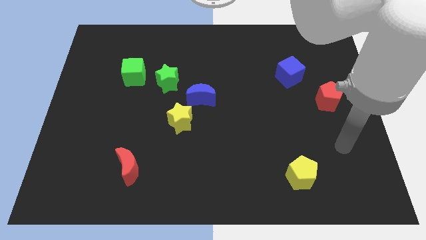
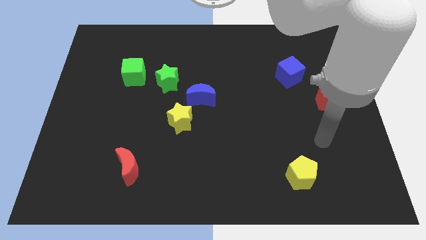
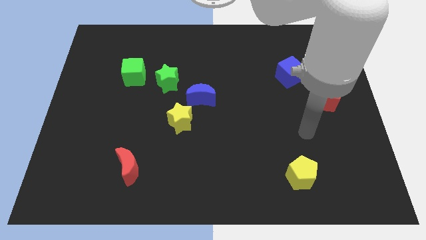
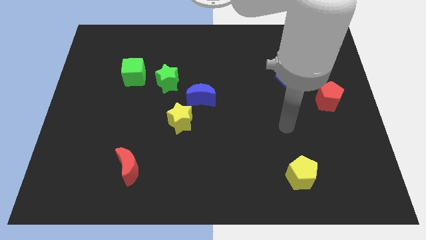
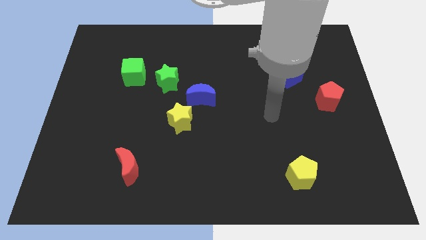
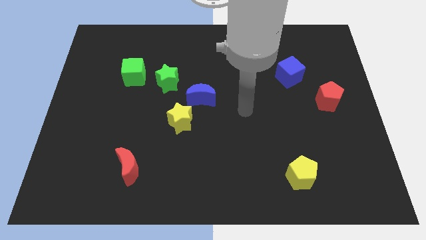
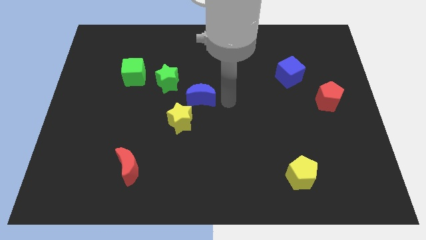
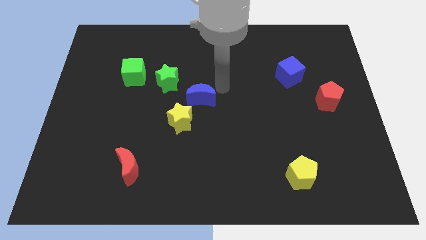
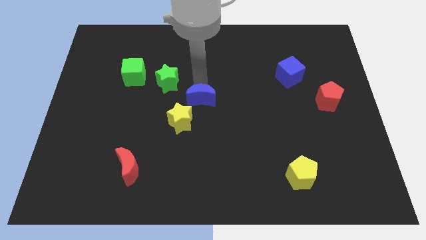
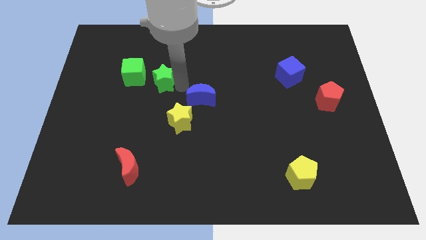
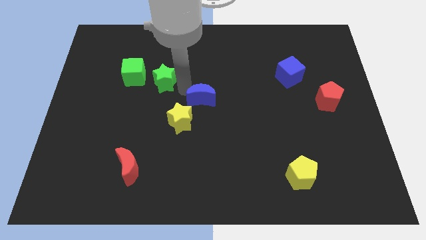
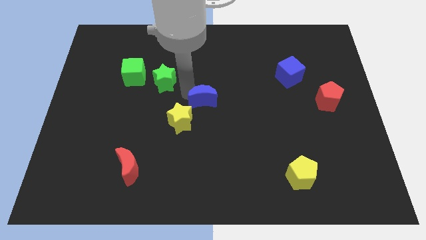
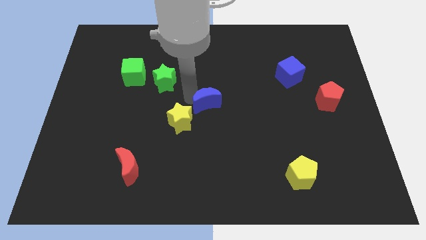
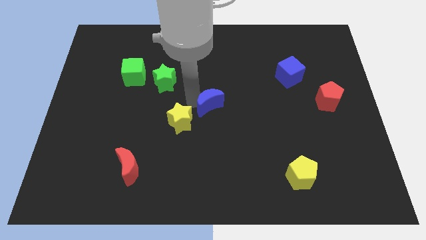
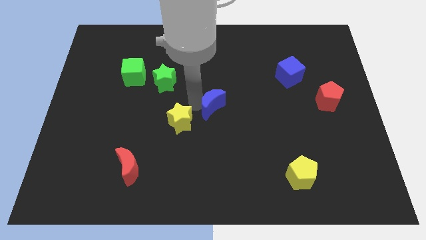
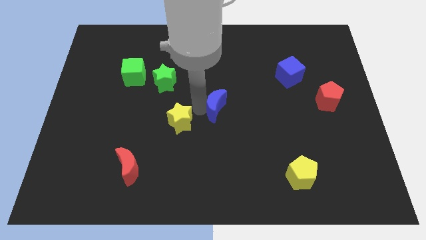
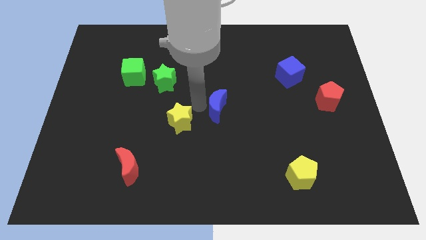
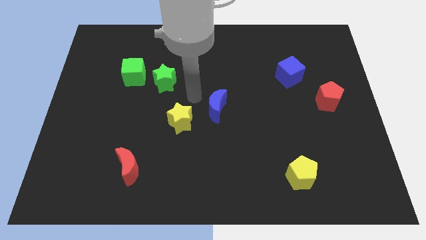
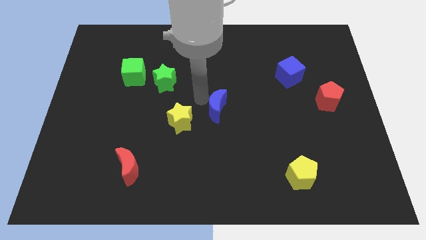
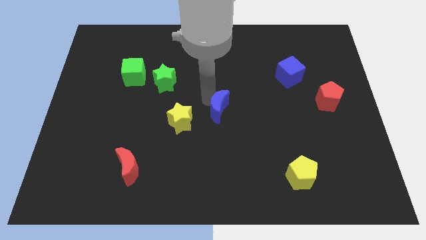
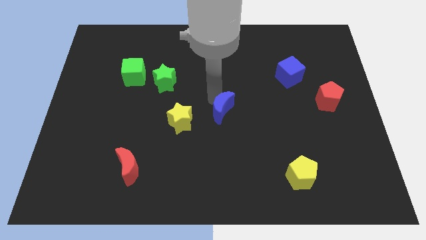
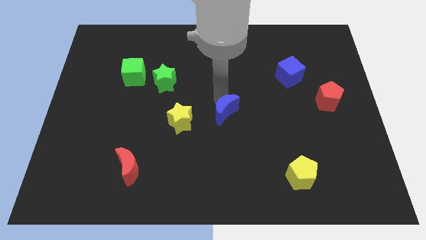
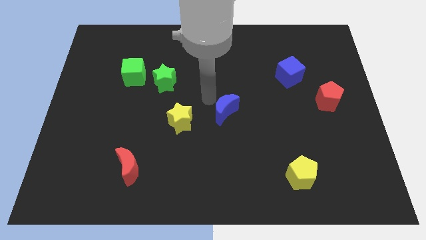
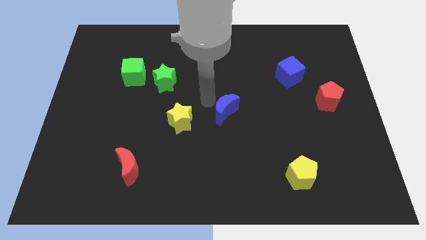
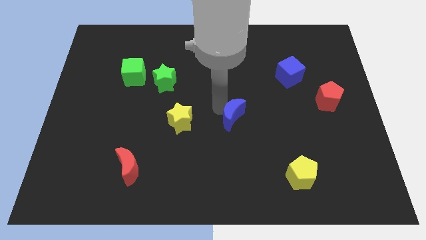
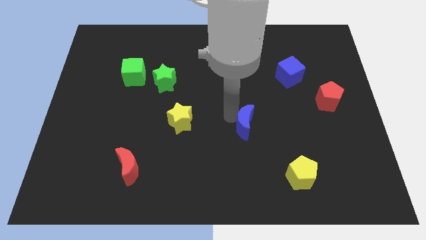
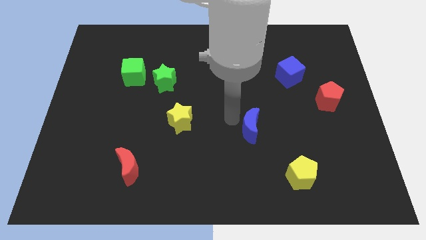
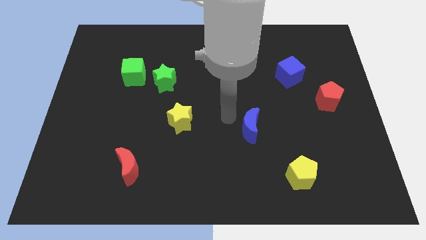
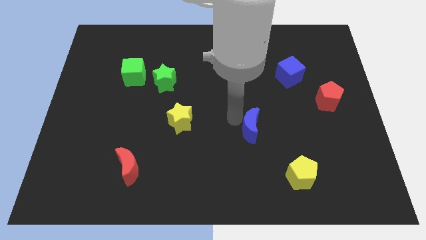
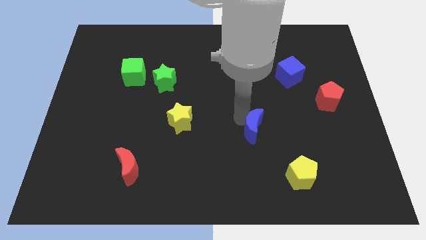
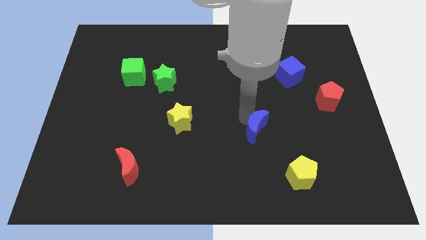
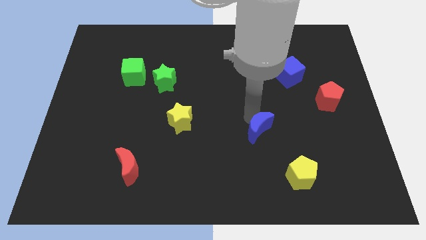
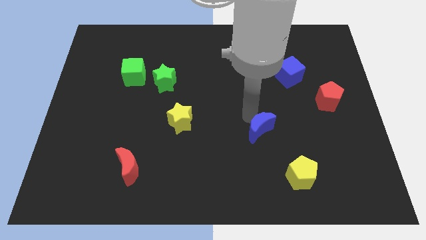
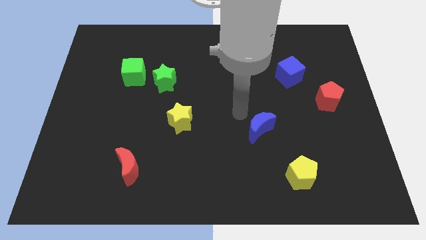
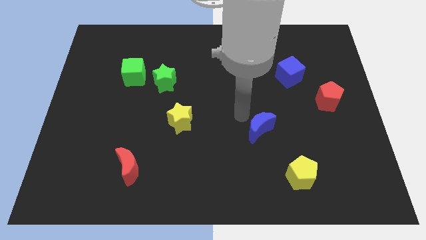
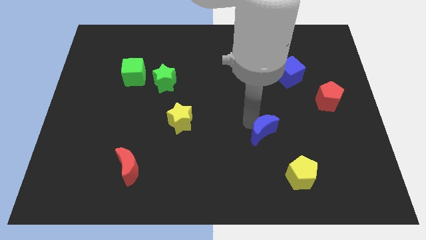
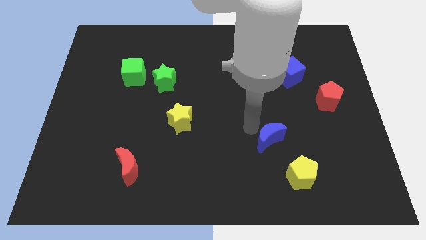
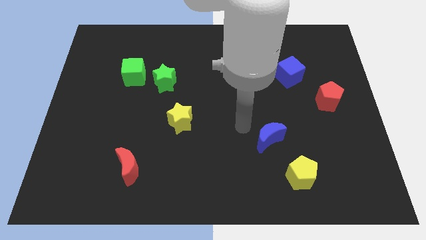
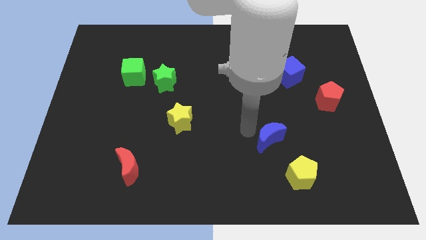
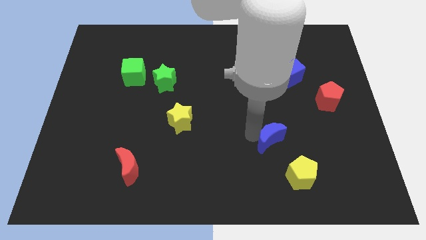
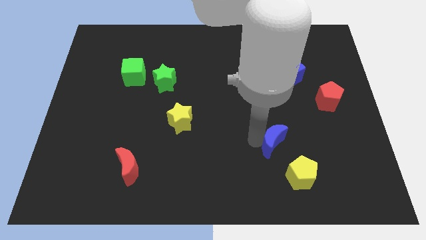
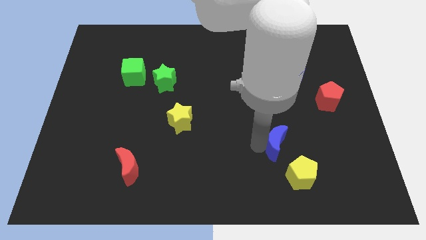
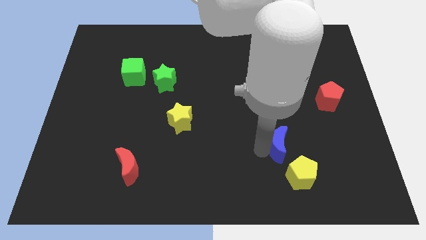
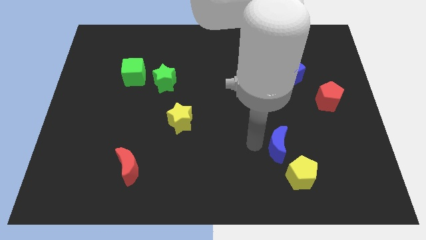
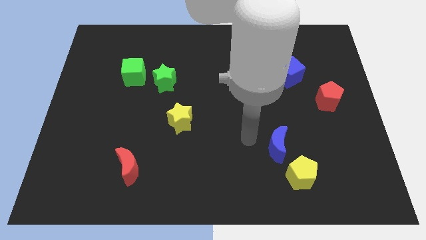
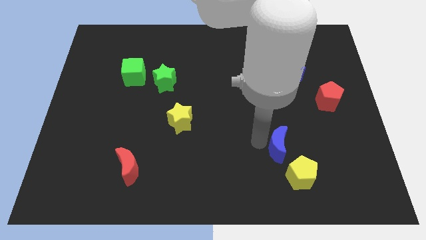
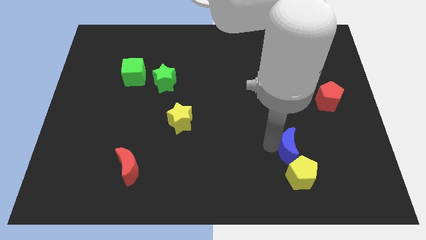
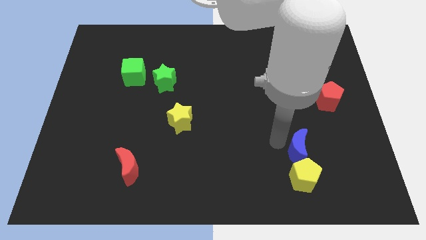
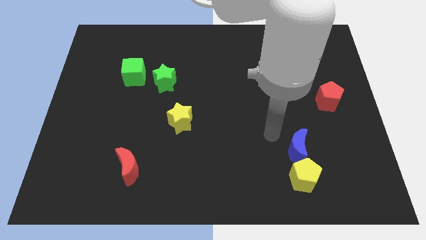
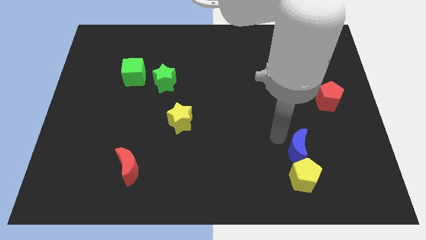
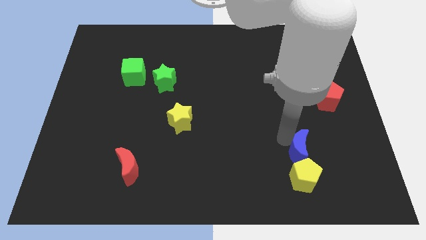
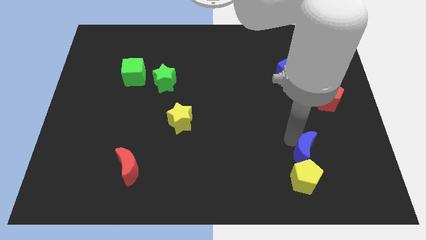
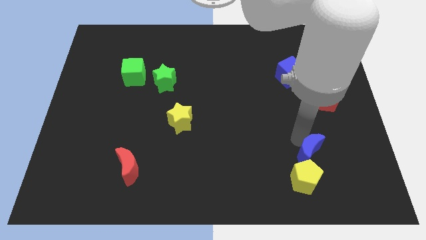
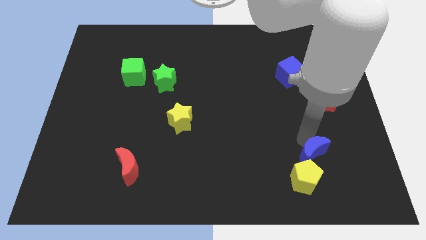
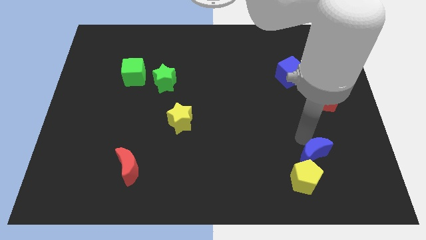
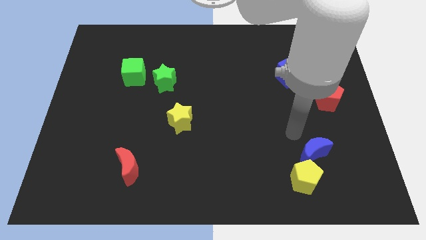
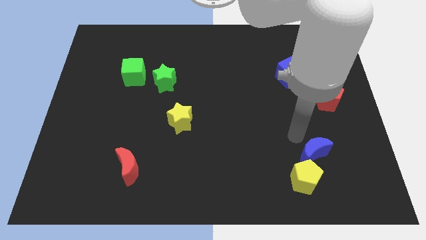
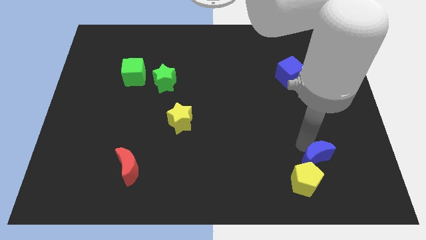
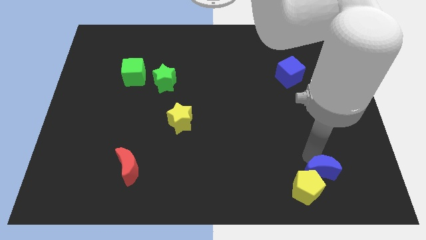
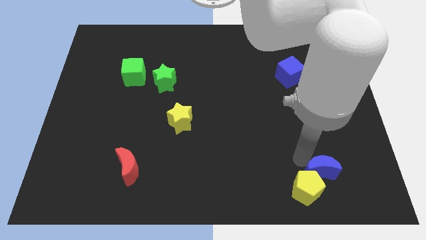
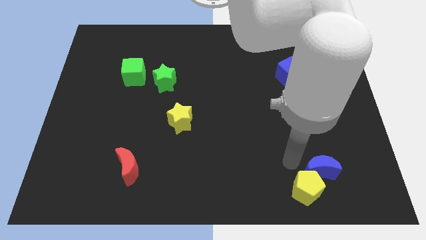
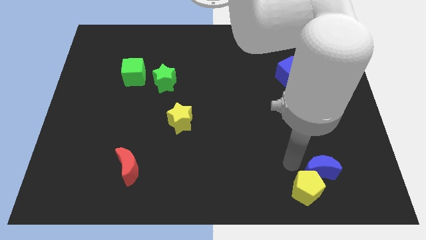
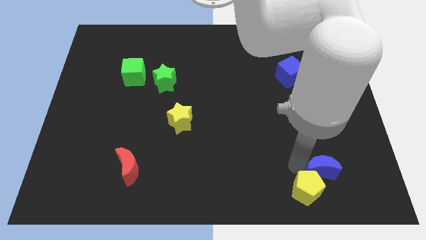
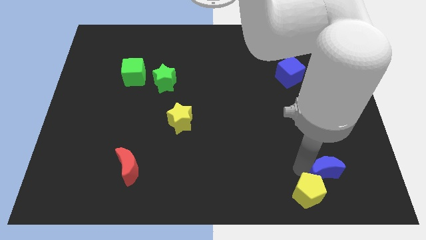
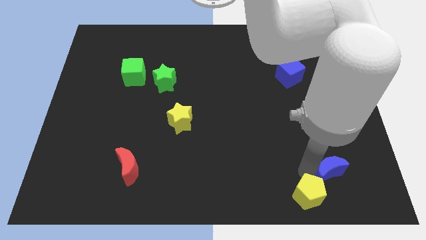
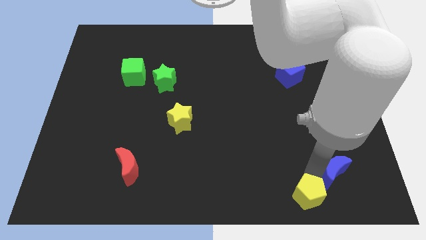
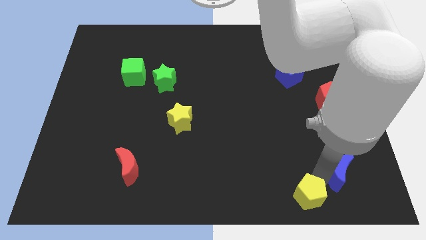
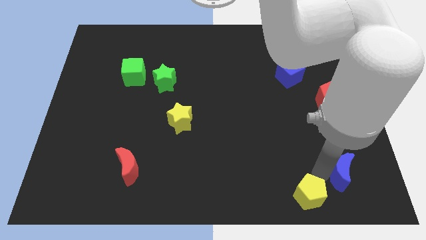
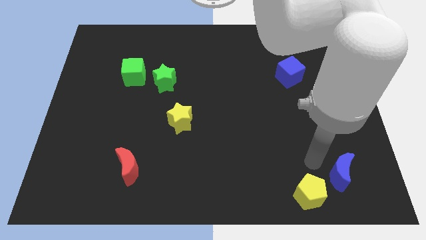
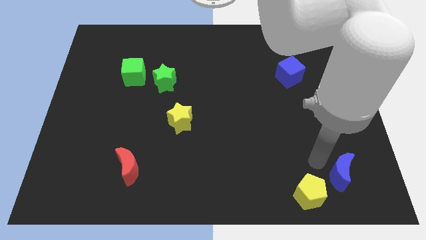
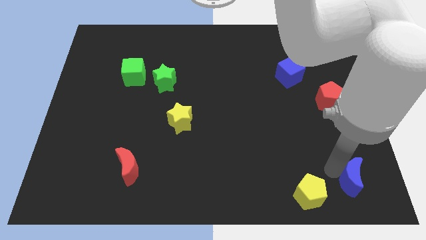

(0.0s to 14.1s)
put the blue moon to the bottom right of the board
